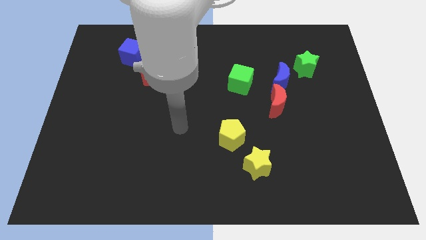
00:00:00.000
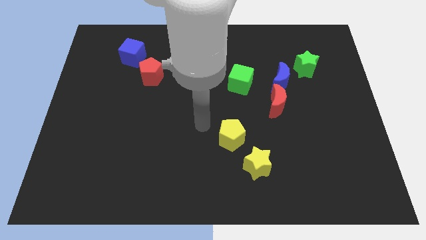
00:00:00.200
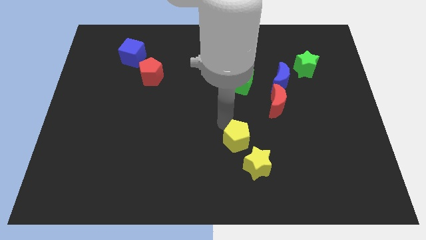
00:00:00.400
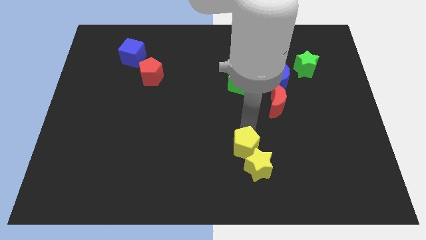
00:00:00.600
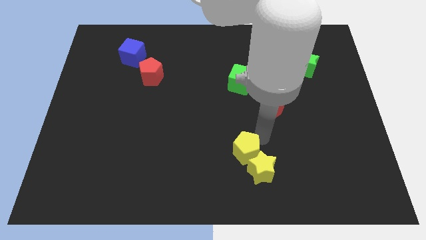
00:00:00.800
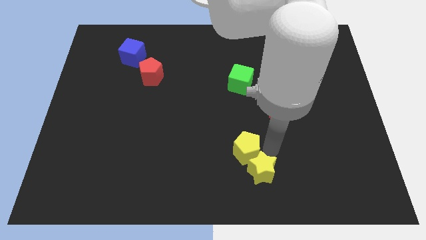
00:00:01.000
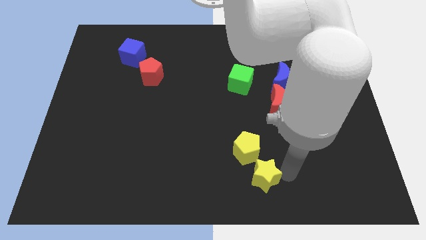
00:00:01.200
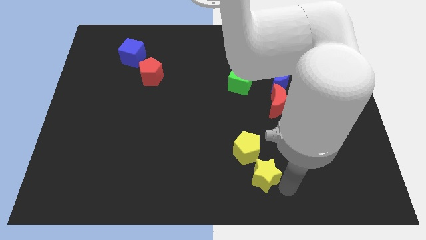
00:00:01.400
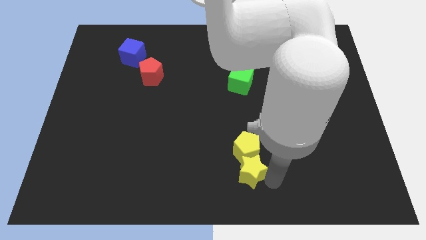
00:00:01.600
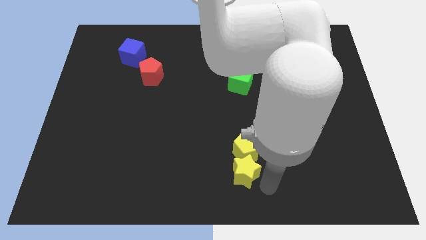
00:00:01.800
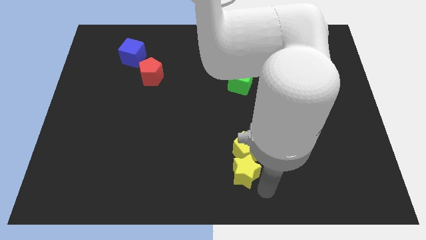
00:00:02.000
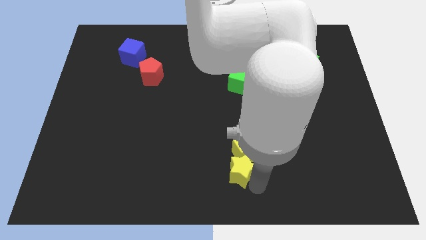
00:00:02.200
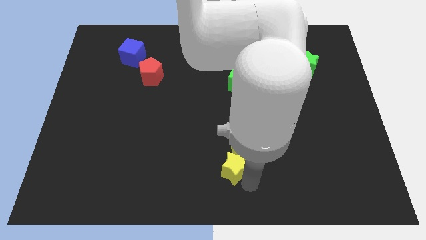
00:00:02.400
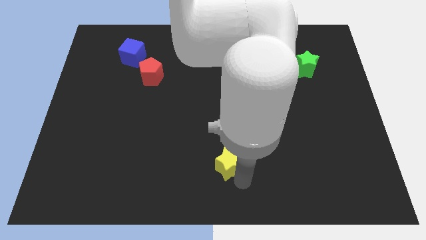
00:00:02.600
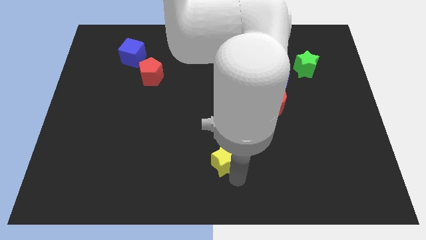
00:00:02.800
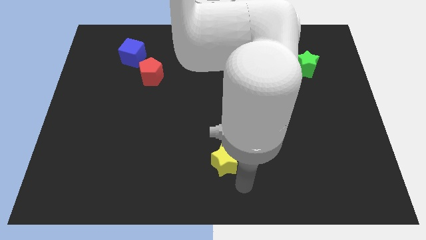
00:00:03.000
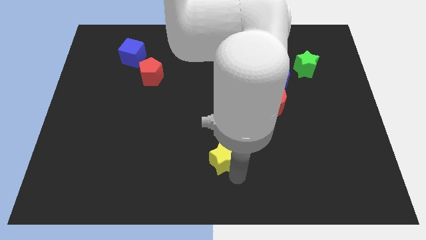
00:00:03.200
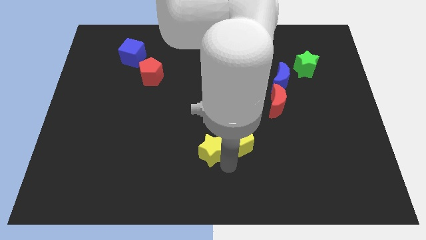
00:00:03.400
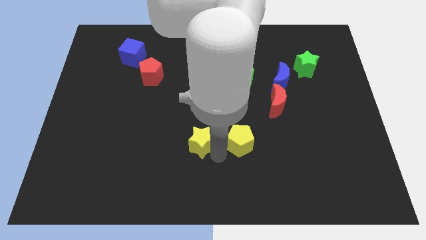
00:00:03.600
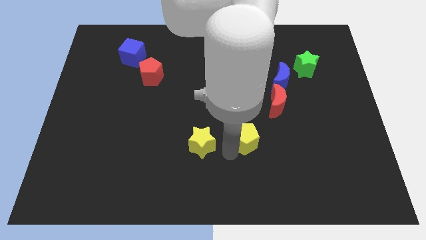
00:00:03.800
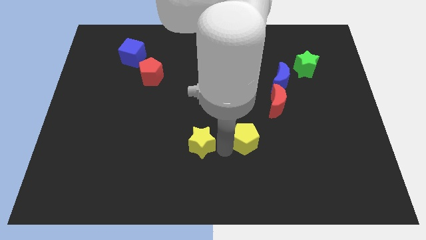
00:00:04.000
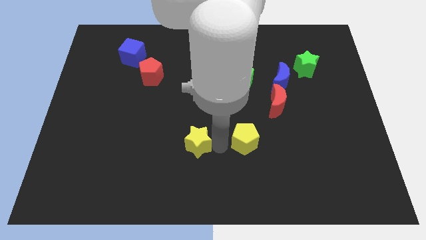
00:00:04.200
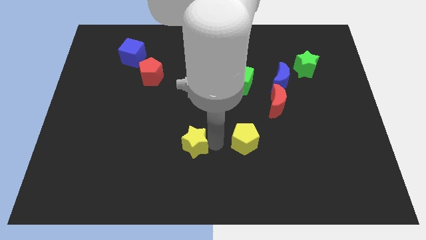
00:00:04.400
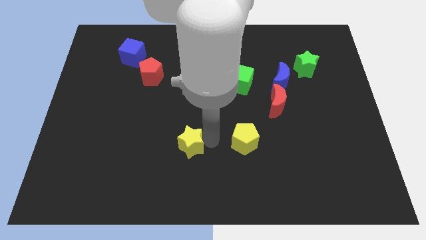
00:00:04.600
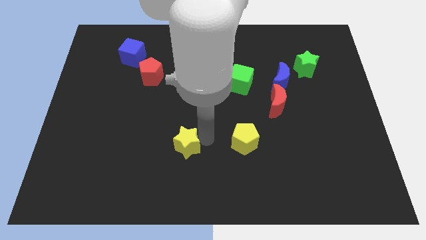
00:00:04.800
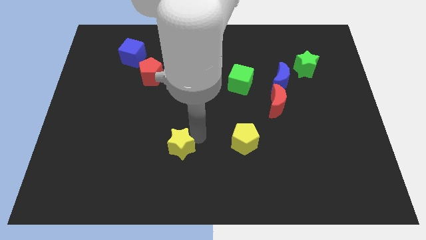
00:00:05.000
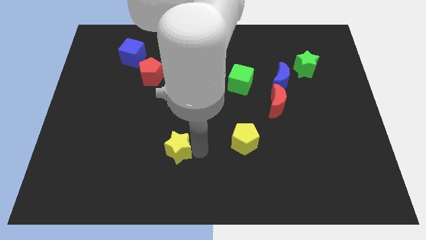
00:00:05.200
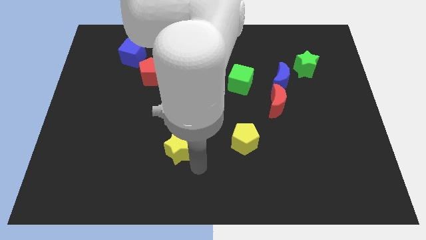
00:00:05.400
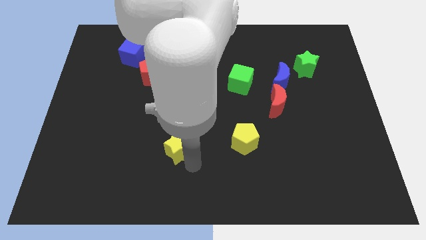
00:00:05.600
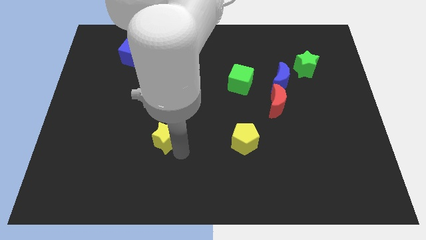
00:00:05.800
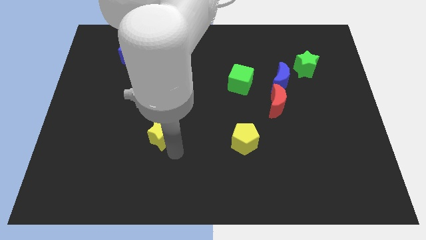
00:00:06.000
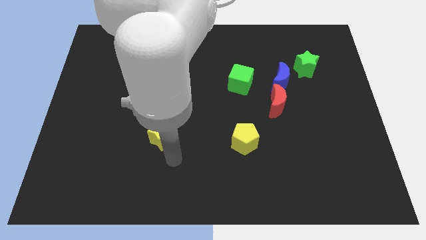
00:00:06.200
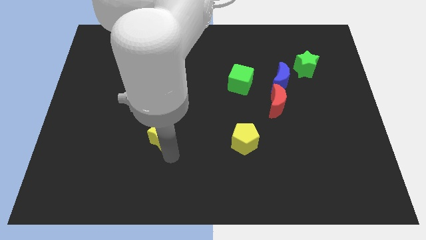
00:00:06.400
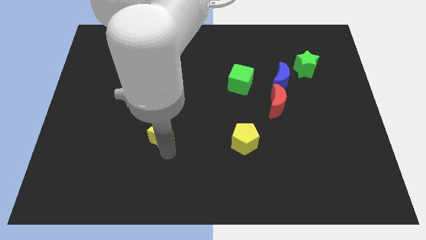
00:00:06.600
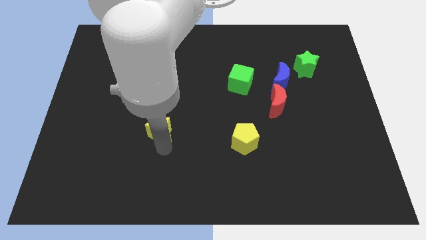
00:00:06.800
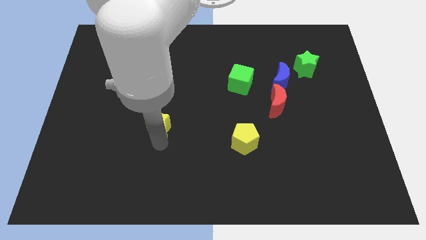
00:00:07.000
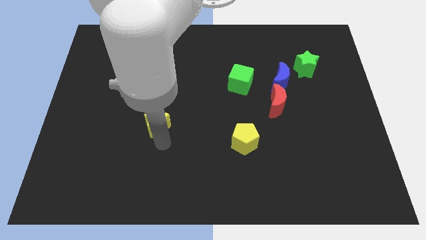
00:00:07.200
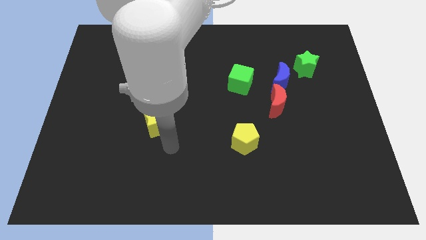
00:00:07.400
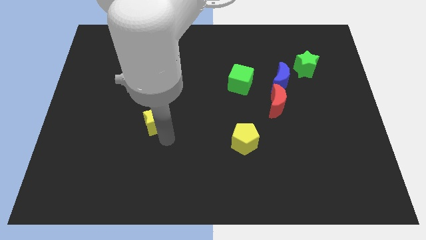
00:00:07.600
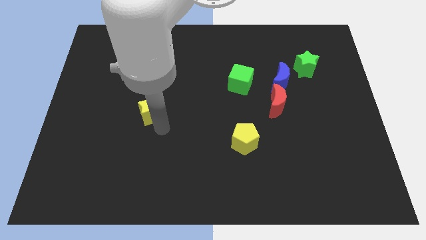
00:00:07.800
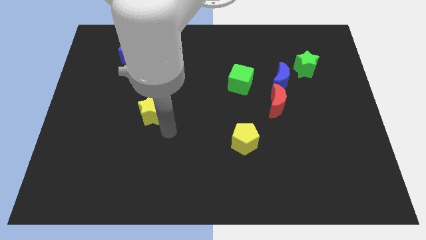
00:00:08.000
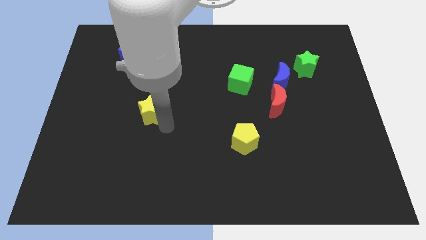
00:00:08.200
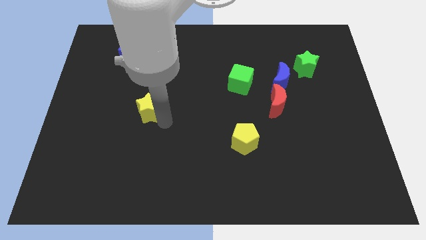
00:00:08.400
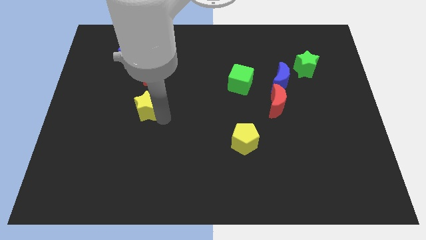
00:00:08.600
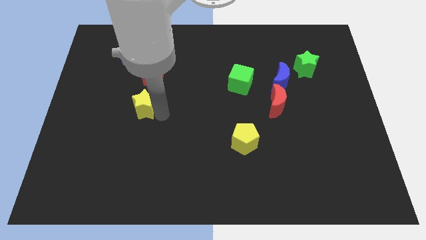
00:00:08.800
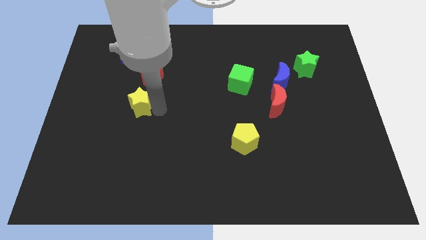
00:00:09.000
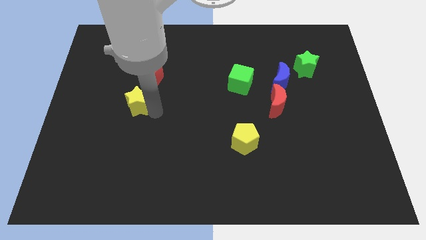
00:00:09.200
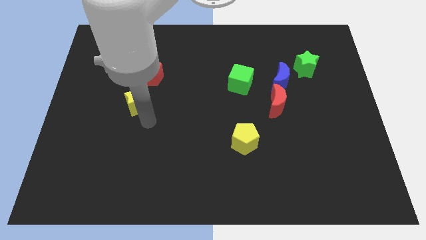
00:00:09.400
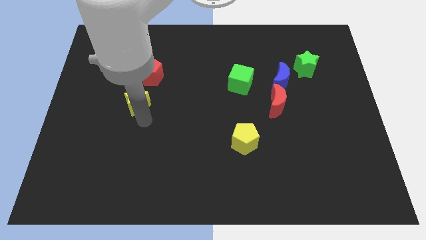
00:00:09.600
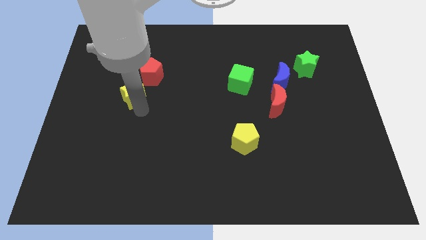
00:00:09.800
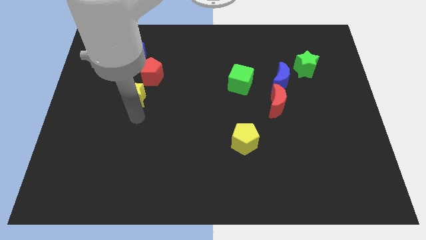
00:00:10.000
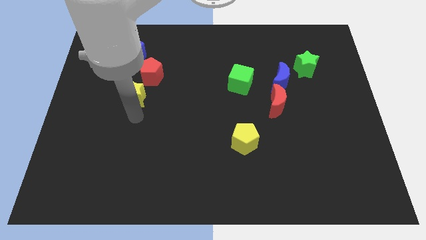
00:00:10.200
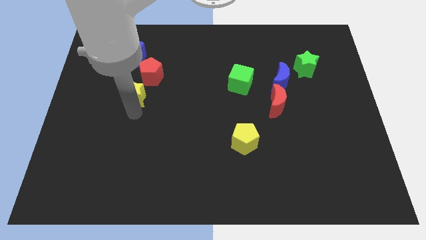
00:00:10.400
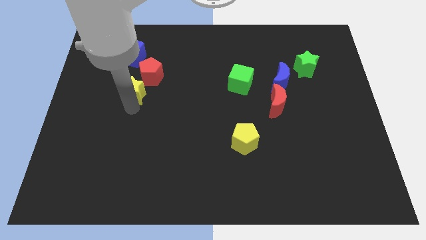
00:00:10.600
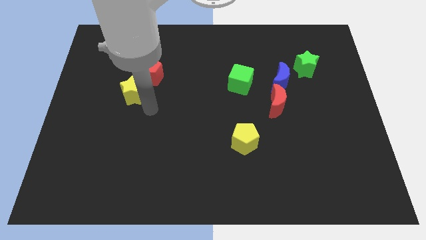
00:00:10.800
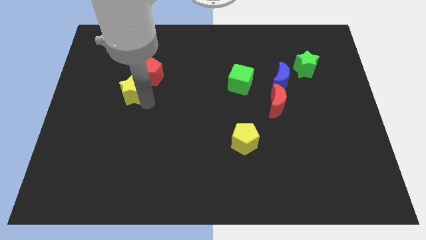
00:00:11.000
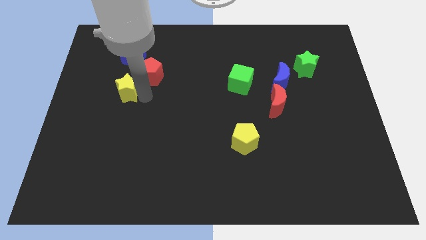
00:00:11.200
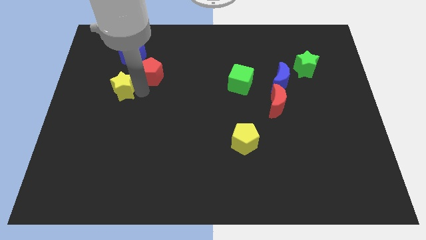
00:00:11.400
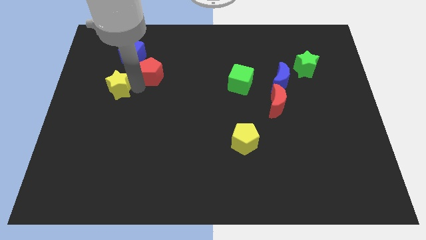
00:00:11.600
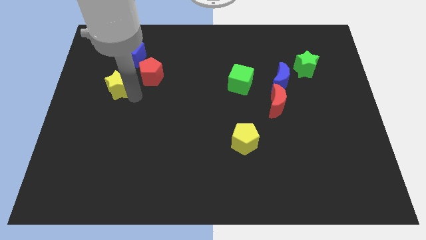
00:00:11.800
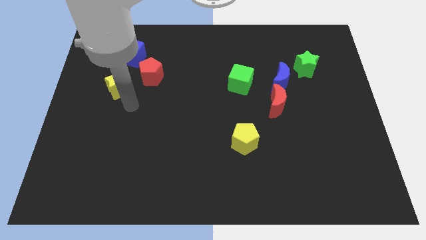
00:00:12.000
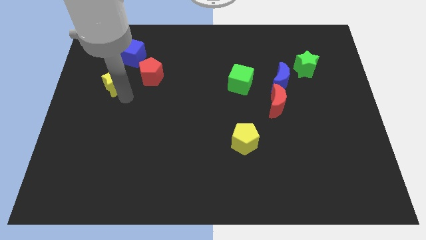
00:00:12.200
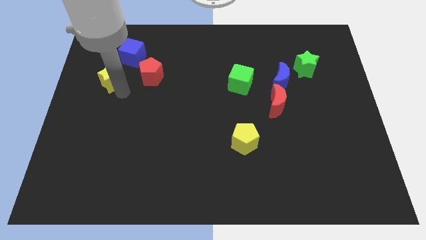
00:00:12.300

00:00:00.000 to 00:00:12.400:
slide the yellow star diagonally down and to the left of the blue cube
